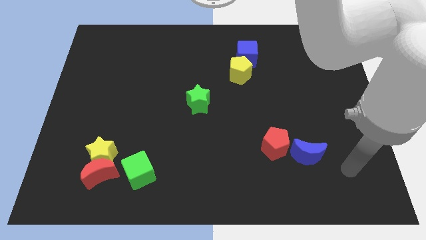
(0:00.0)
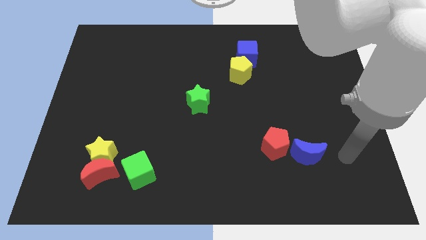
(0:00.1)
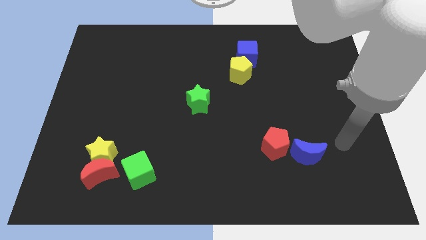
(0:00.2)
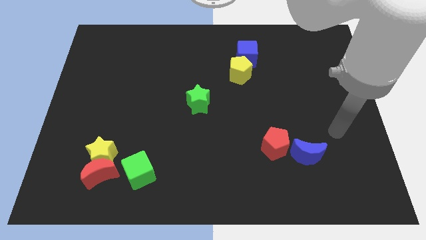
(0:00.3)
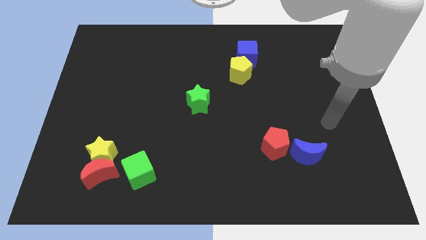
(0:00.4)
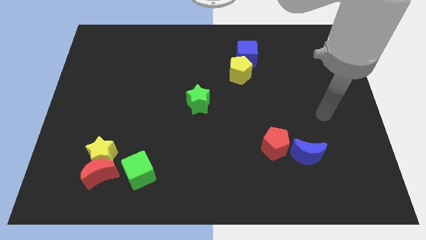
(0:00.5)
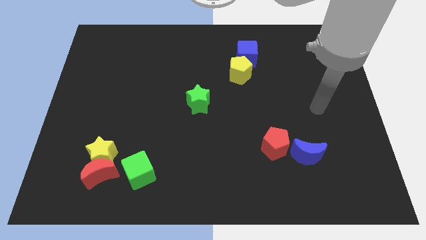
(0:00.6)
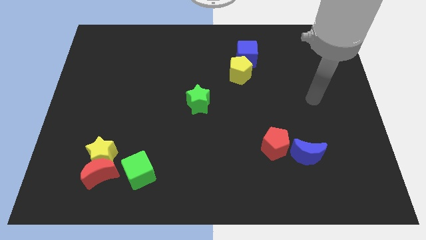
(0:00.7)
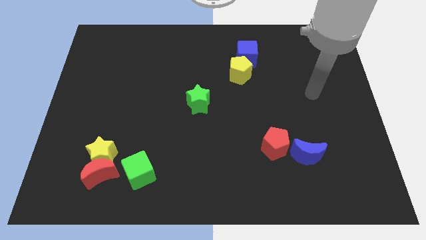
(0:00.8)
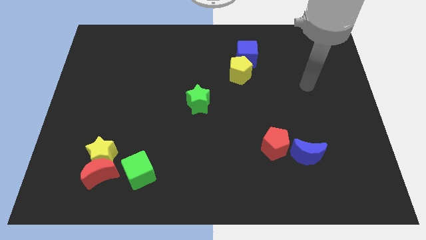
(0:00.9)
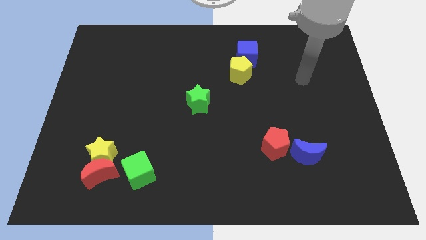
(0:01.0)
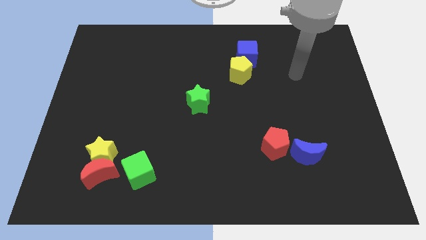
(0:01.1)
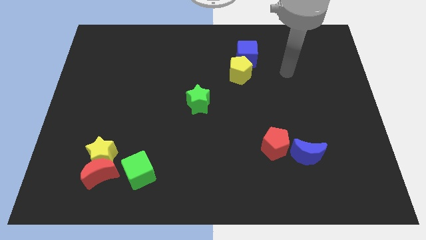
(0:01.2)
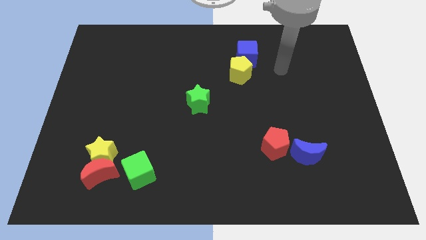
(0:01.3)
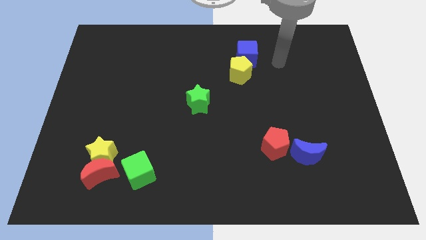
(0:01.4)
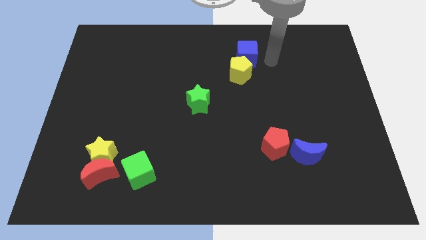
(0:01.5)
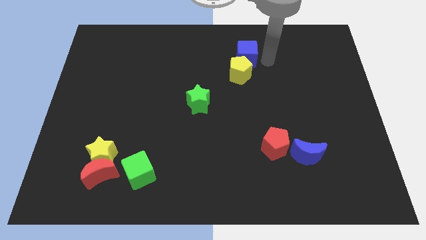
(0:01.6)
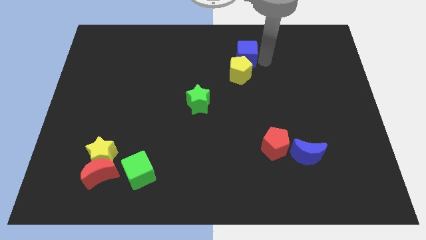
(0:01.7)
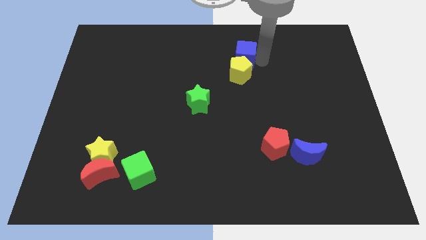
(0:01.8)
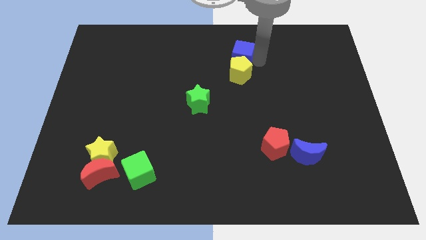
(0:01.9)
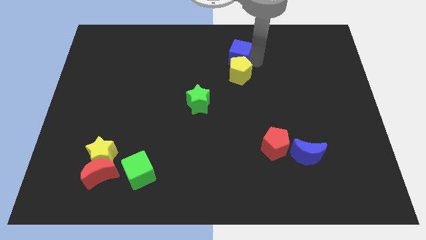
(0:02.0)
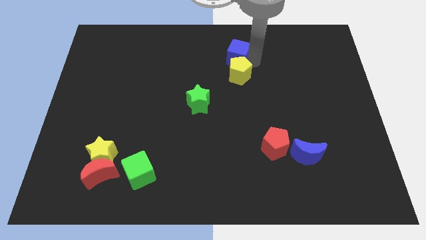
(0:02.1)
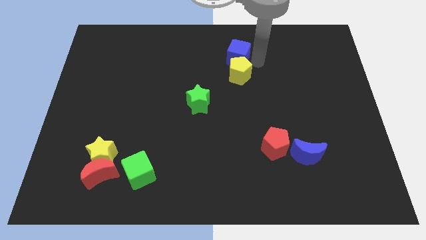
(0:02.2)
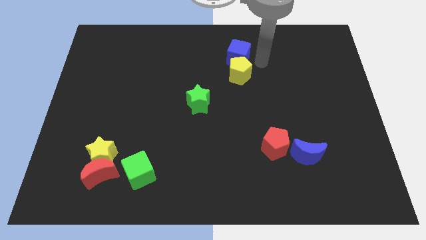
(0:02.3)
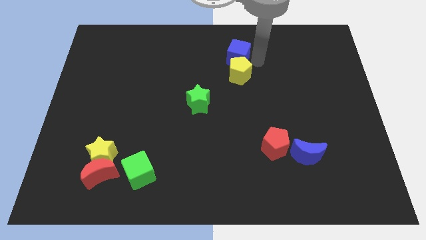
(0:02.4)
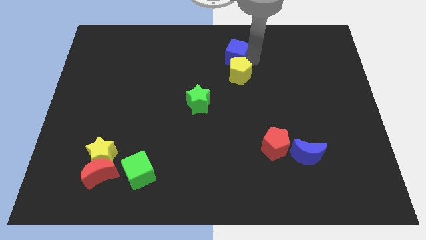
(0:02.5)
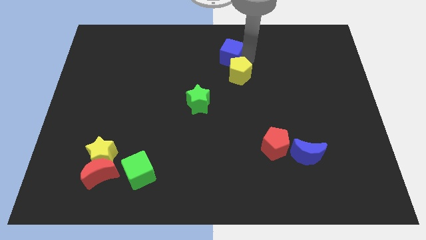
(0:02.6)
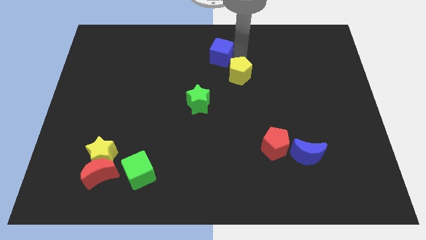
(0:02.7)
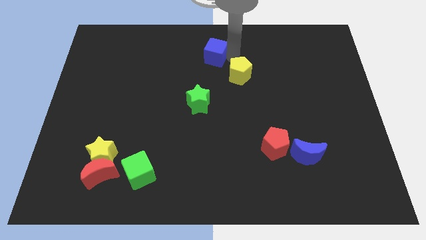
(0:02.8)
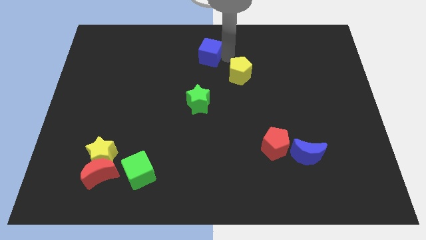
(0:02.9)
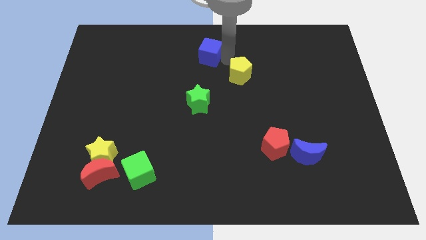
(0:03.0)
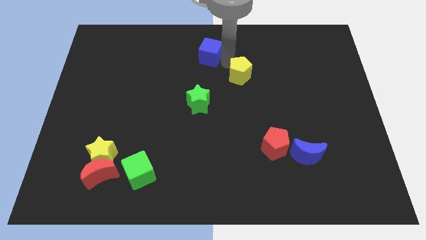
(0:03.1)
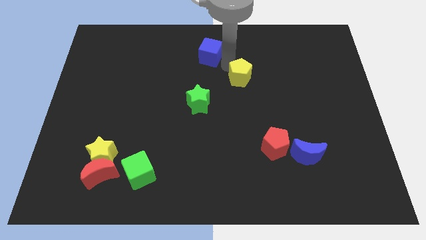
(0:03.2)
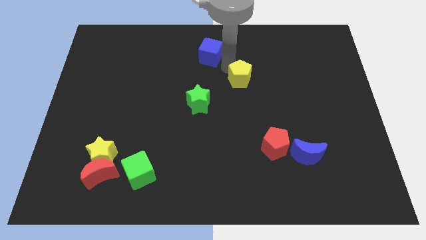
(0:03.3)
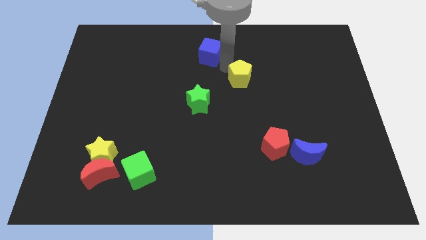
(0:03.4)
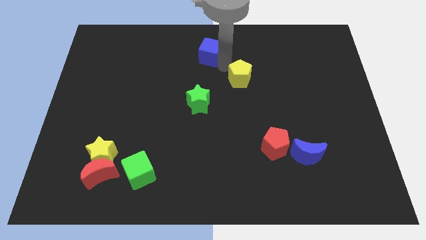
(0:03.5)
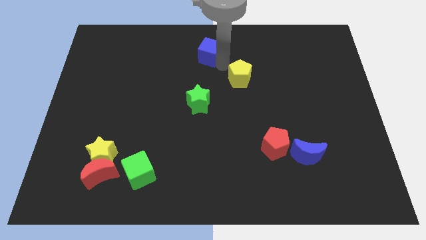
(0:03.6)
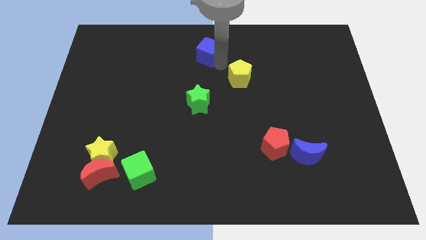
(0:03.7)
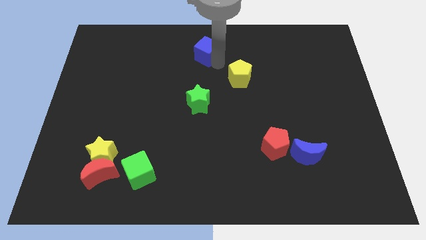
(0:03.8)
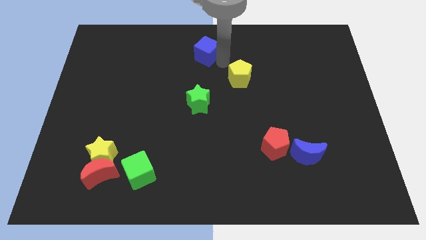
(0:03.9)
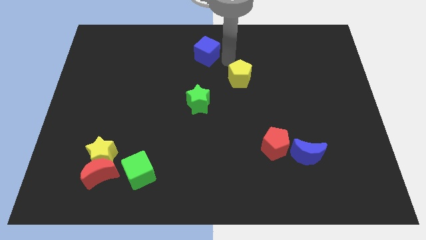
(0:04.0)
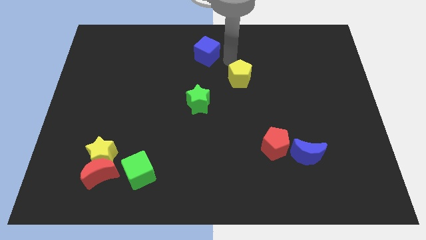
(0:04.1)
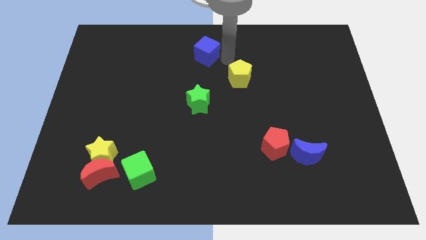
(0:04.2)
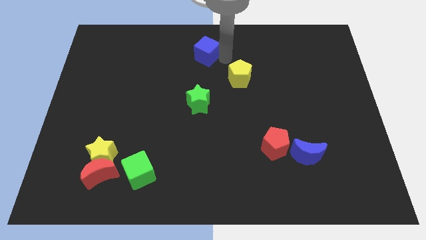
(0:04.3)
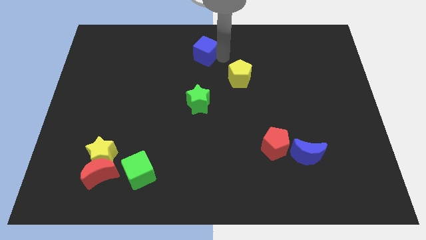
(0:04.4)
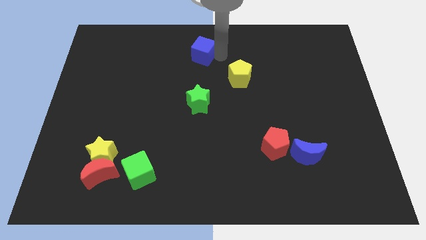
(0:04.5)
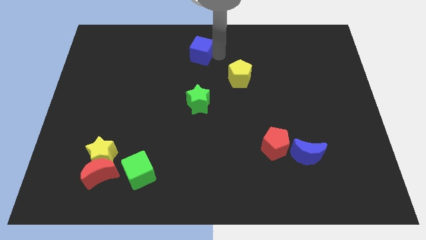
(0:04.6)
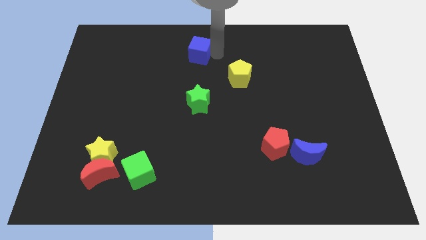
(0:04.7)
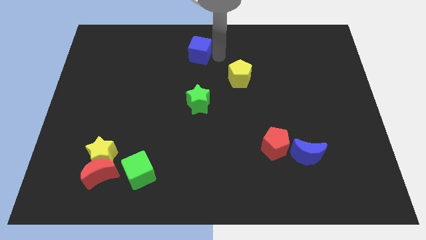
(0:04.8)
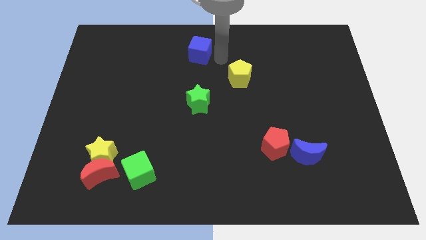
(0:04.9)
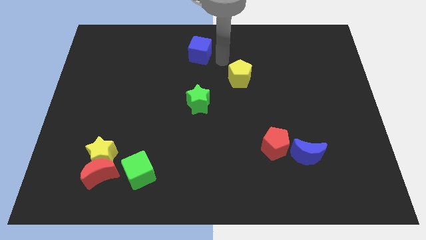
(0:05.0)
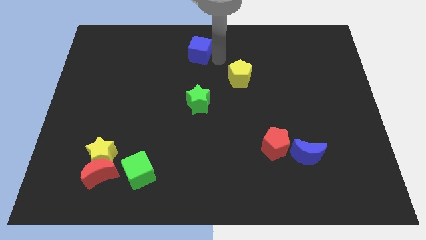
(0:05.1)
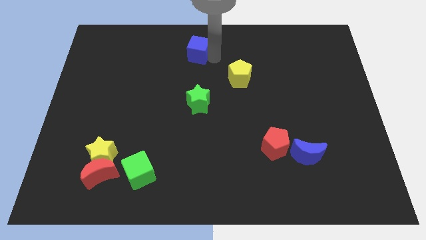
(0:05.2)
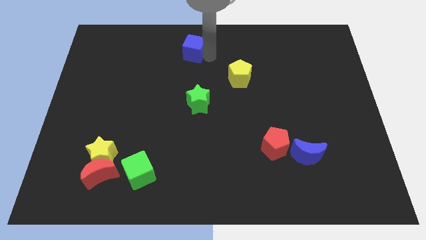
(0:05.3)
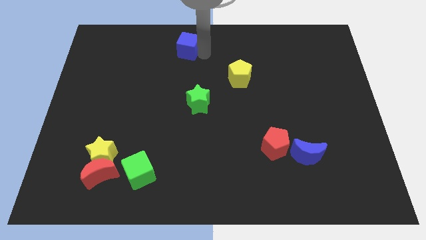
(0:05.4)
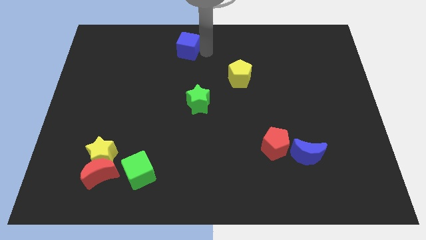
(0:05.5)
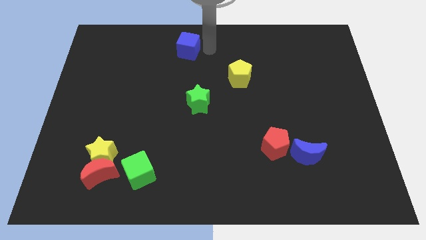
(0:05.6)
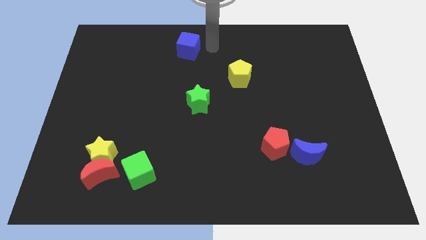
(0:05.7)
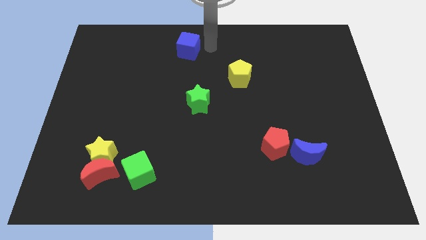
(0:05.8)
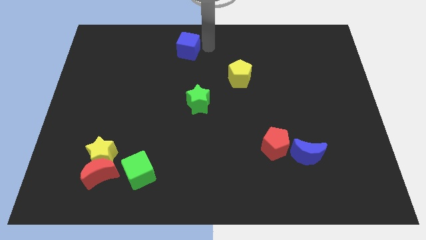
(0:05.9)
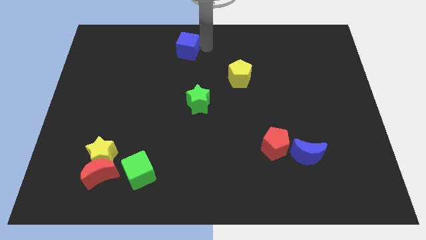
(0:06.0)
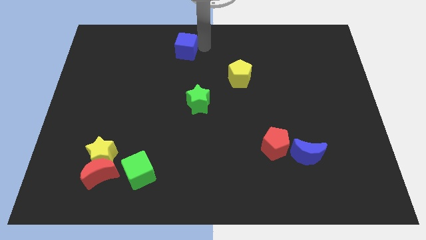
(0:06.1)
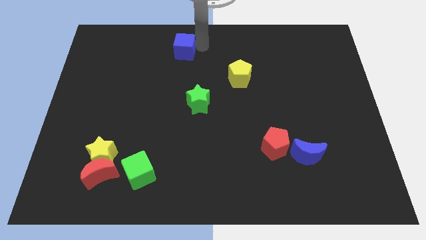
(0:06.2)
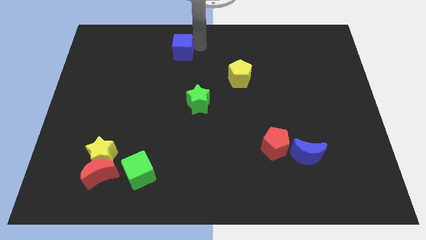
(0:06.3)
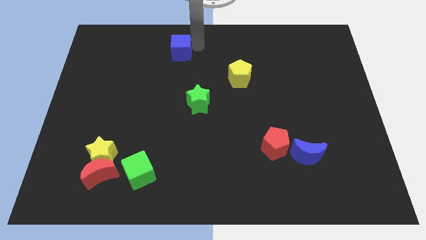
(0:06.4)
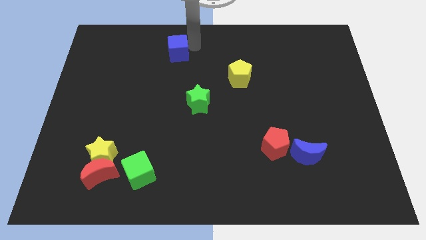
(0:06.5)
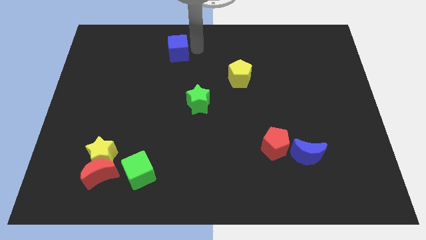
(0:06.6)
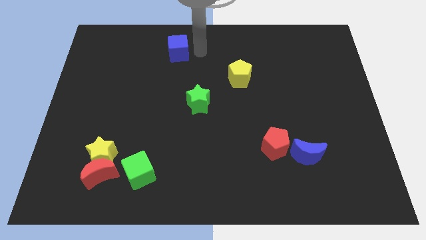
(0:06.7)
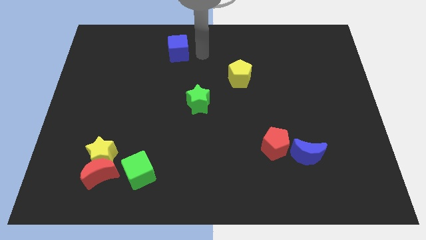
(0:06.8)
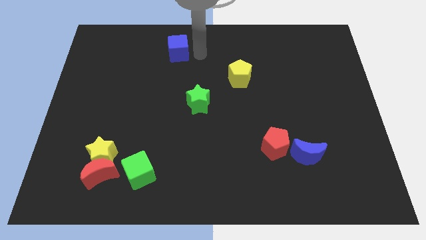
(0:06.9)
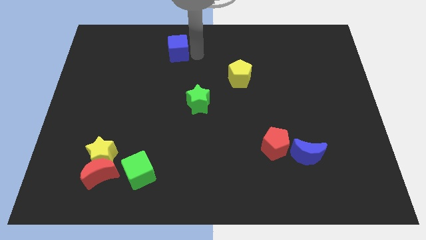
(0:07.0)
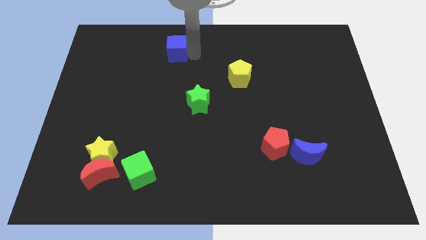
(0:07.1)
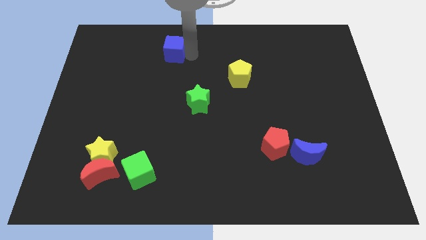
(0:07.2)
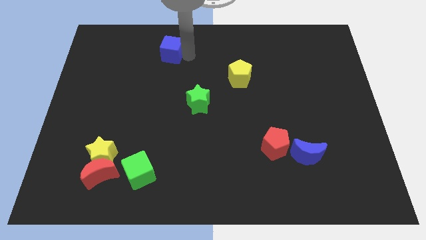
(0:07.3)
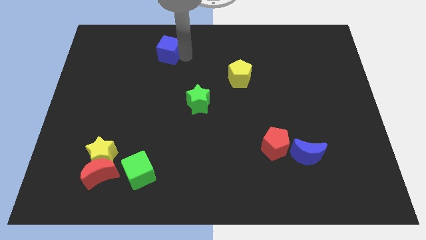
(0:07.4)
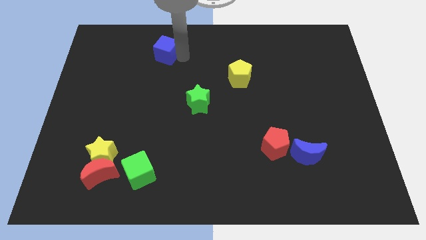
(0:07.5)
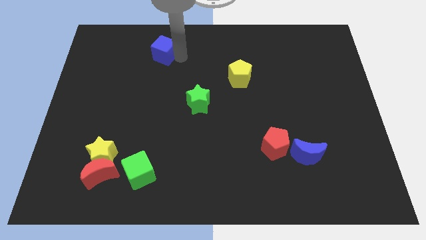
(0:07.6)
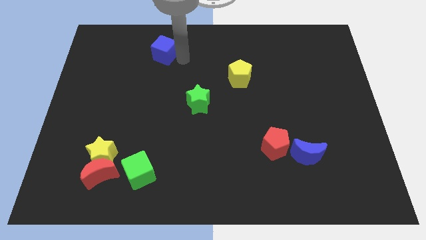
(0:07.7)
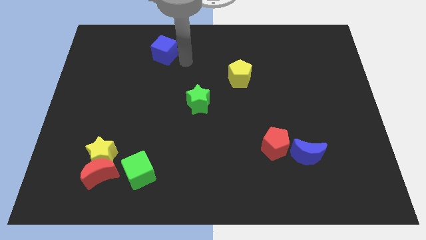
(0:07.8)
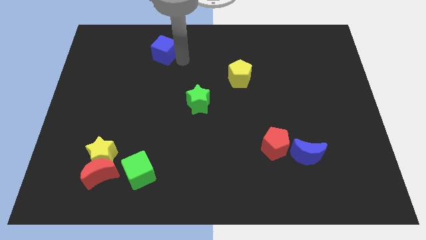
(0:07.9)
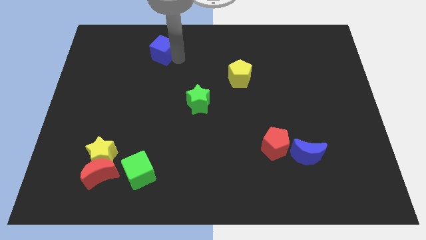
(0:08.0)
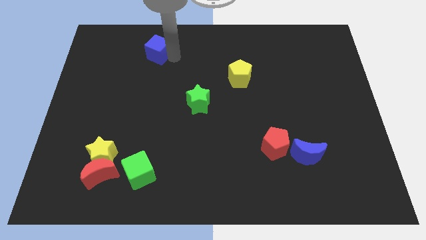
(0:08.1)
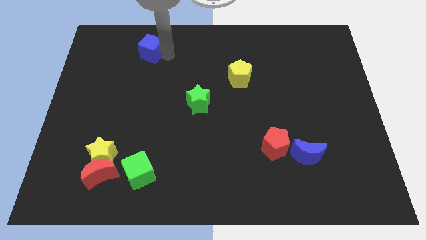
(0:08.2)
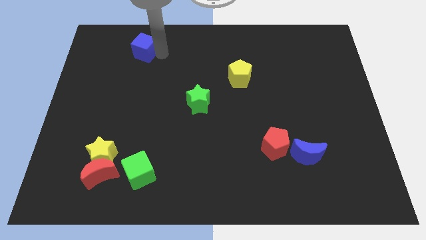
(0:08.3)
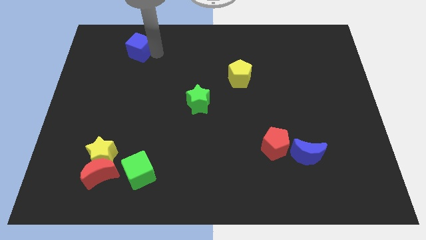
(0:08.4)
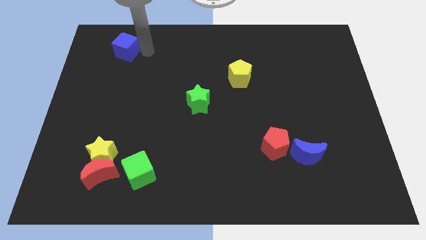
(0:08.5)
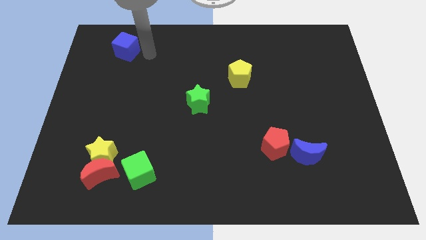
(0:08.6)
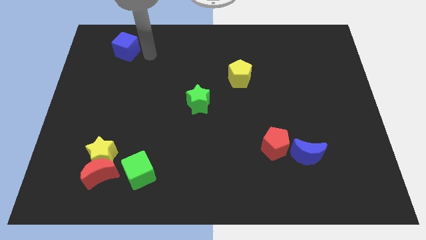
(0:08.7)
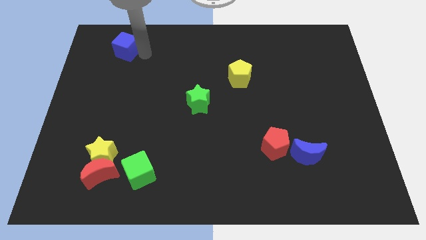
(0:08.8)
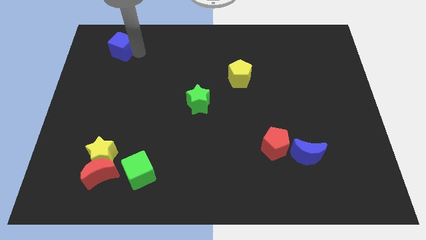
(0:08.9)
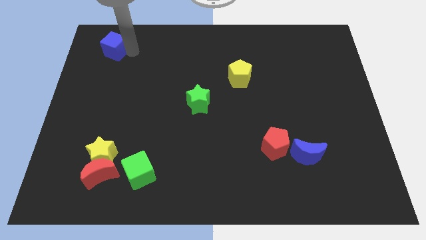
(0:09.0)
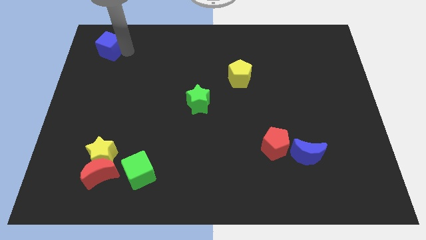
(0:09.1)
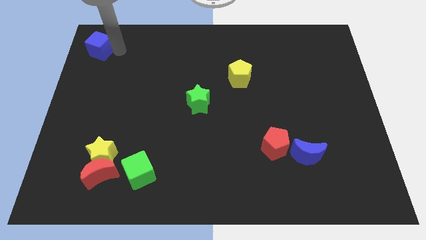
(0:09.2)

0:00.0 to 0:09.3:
move the blue cube to the upper left corner
